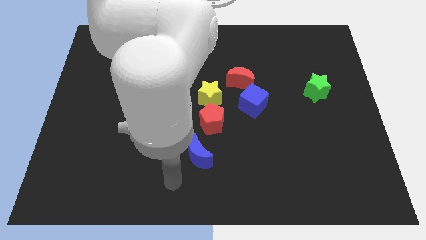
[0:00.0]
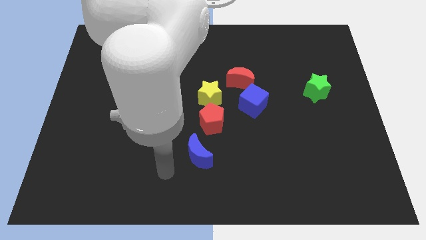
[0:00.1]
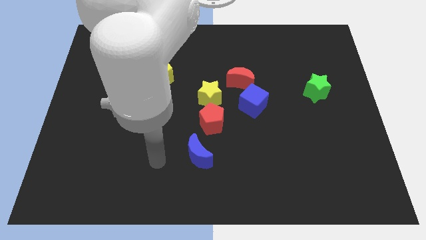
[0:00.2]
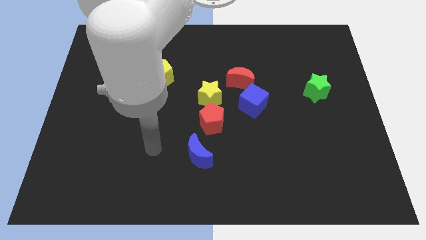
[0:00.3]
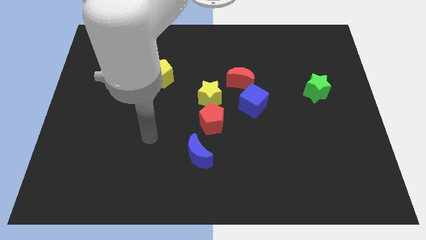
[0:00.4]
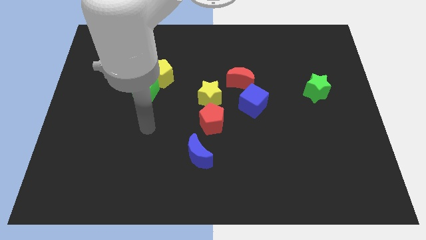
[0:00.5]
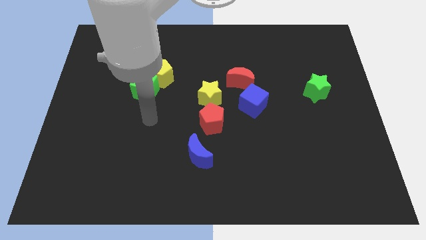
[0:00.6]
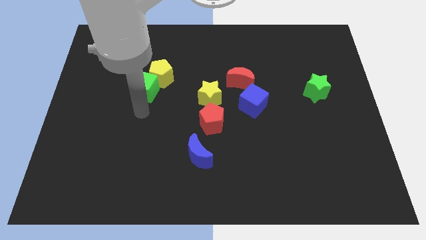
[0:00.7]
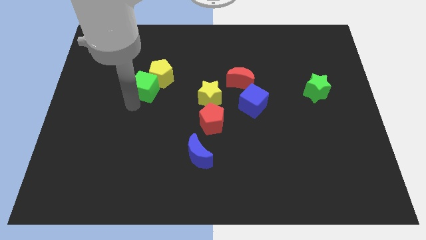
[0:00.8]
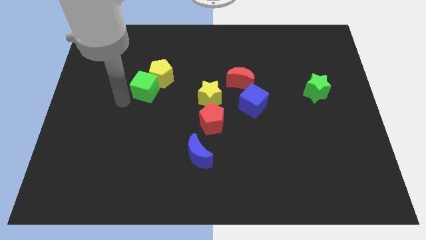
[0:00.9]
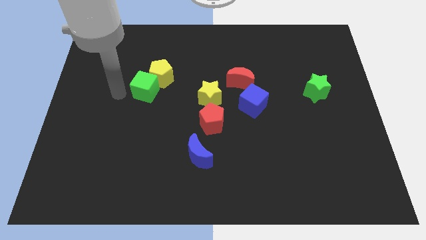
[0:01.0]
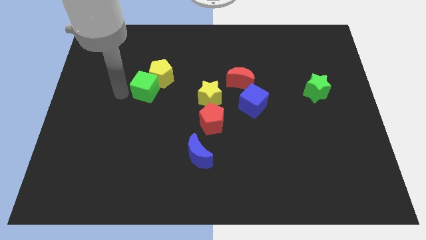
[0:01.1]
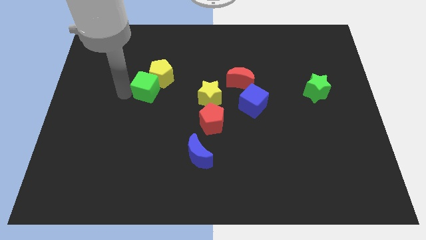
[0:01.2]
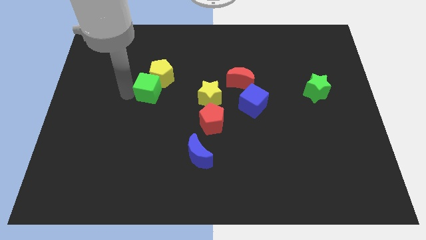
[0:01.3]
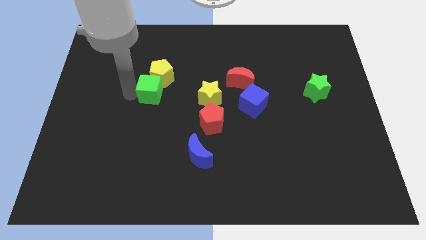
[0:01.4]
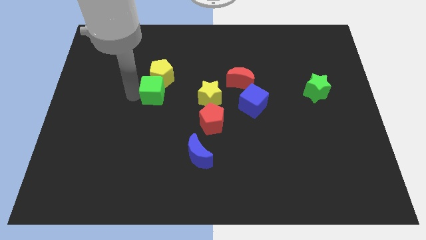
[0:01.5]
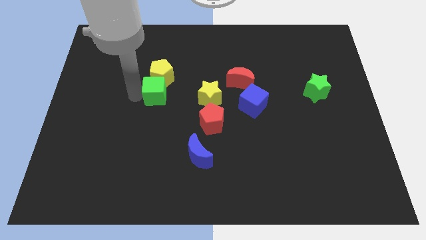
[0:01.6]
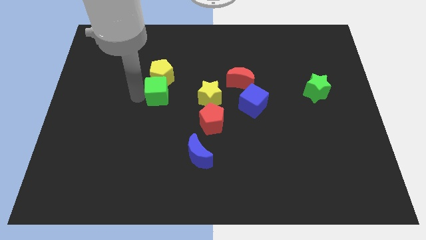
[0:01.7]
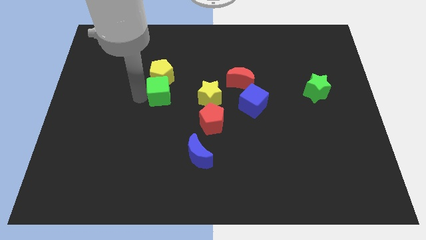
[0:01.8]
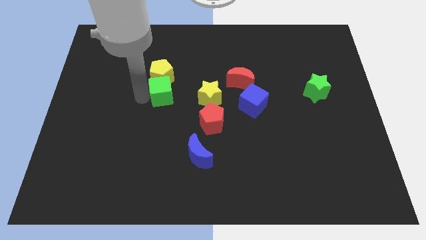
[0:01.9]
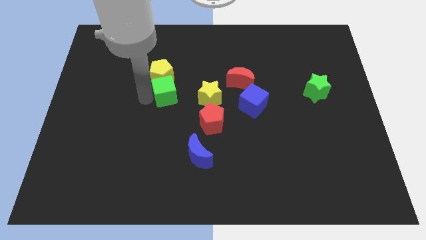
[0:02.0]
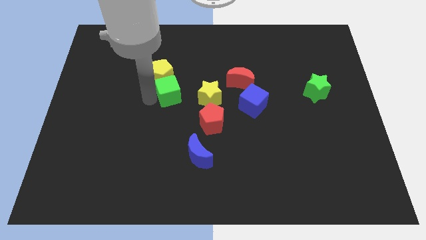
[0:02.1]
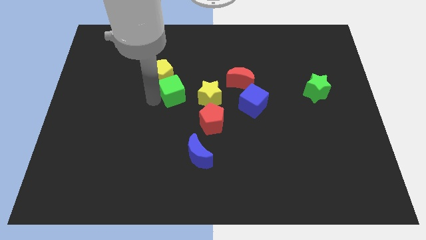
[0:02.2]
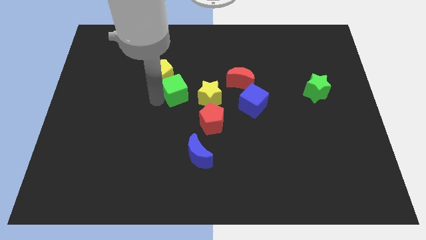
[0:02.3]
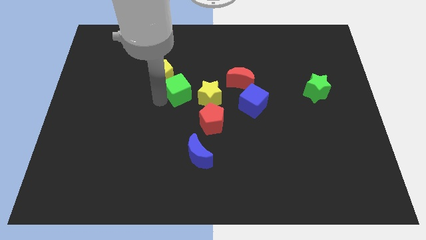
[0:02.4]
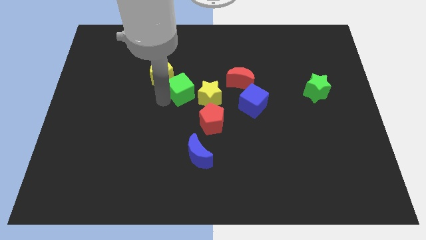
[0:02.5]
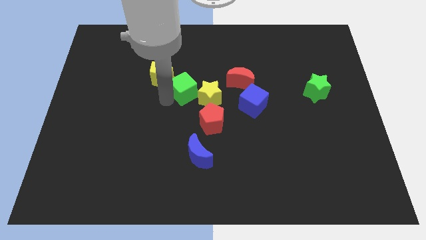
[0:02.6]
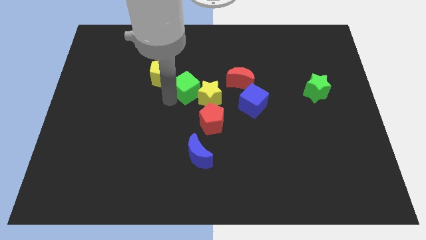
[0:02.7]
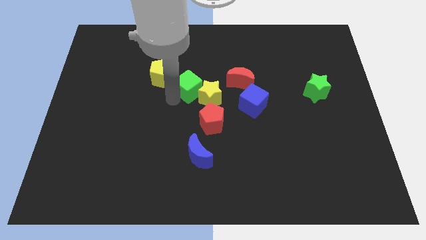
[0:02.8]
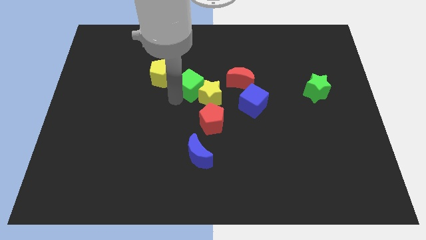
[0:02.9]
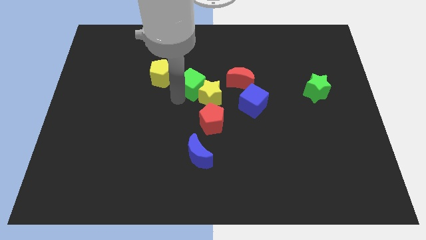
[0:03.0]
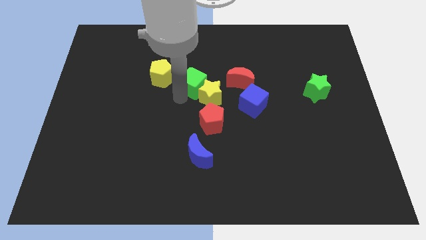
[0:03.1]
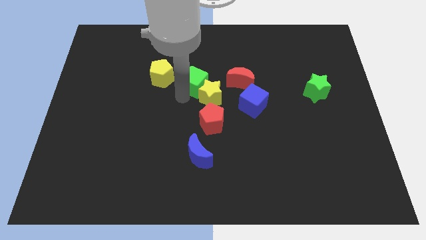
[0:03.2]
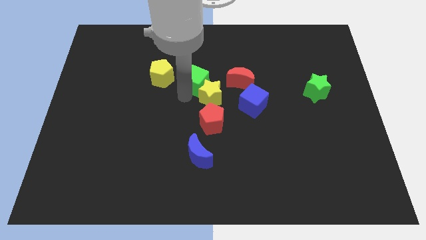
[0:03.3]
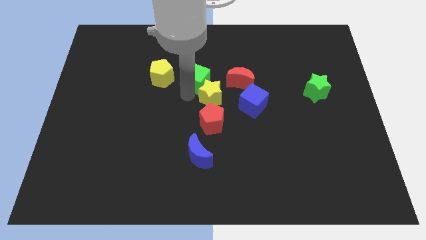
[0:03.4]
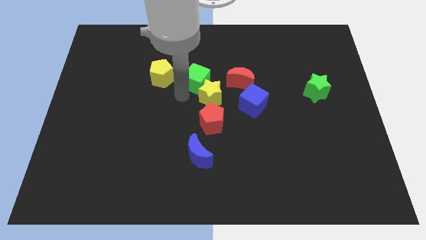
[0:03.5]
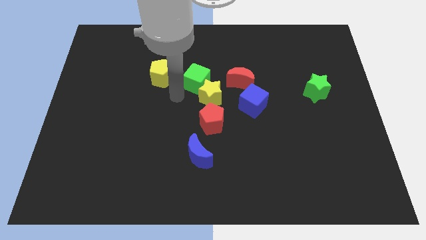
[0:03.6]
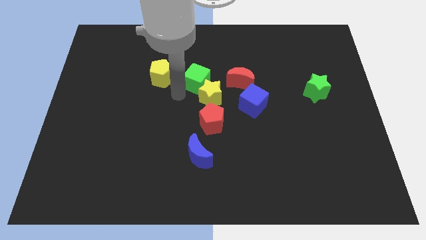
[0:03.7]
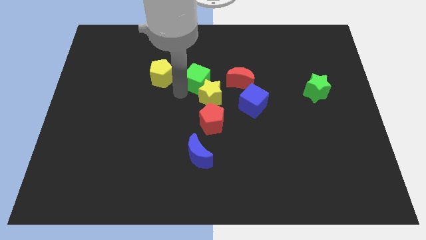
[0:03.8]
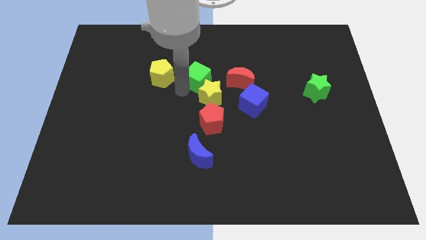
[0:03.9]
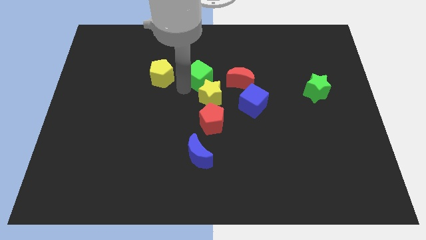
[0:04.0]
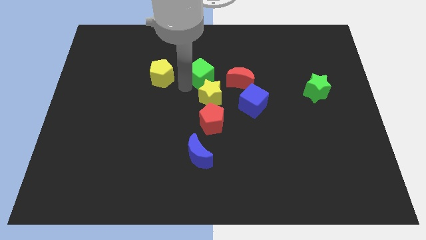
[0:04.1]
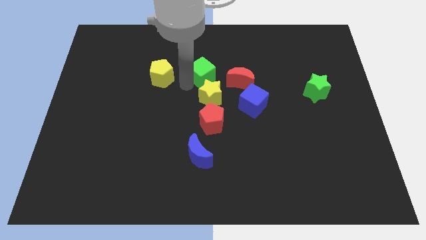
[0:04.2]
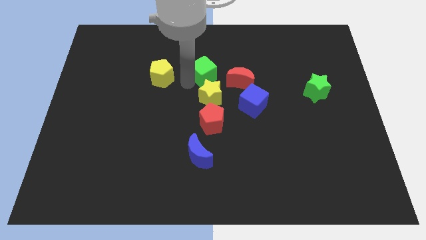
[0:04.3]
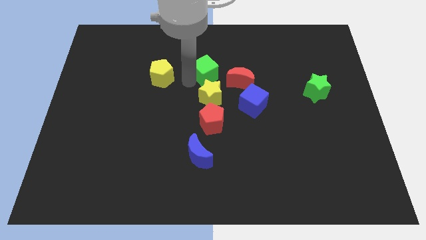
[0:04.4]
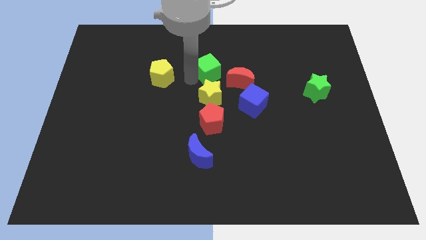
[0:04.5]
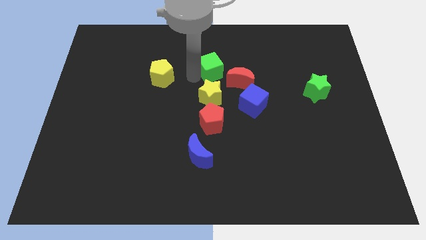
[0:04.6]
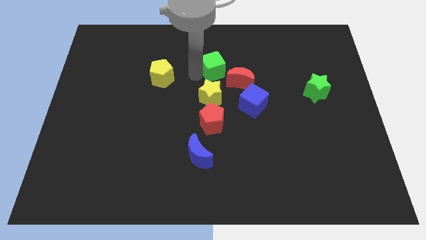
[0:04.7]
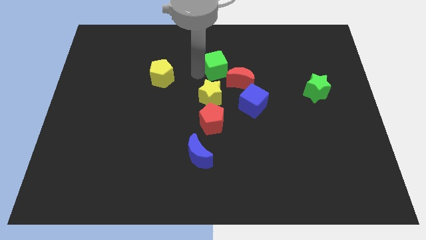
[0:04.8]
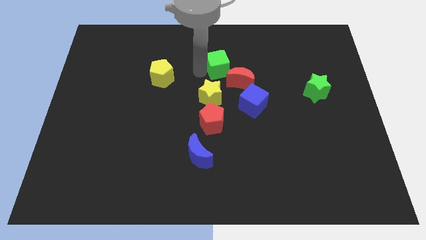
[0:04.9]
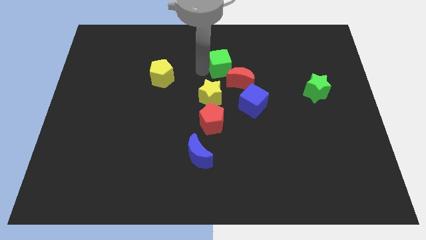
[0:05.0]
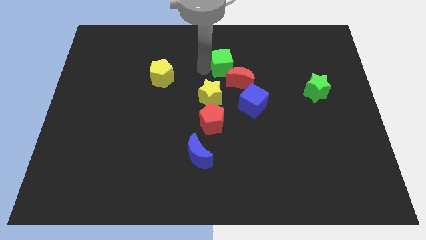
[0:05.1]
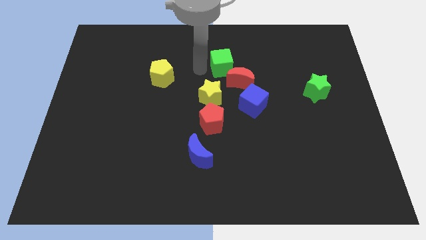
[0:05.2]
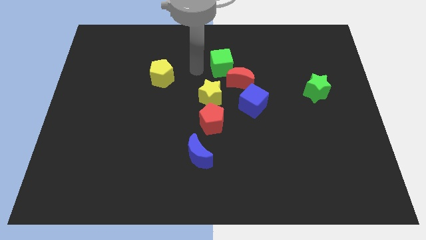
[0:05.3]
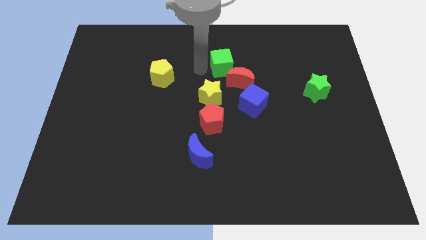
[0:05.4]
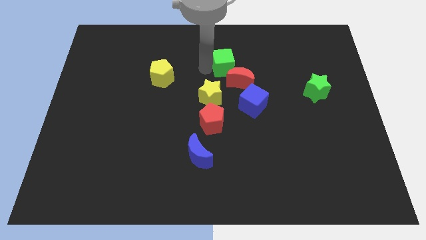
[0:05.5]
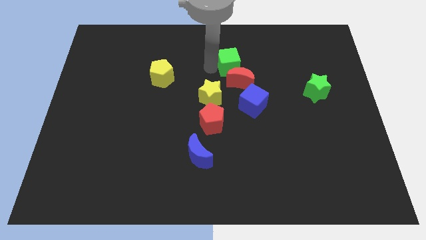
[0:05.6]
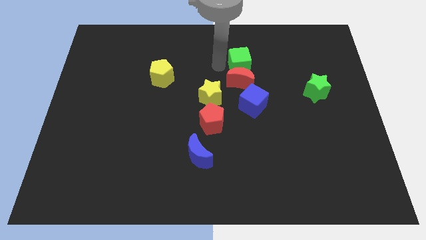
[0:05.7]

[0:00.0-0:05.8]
slide the green cube to the right

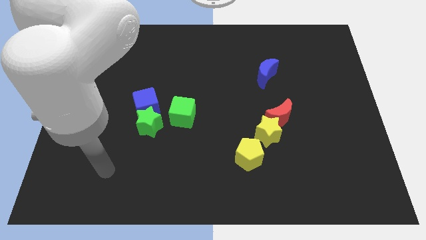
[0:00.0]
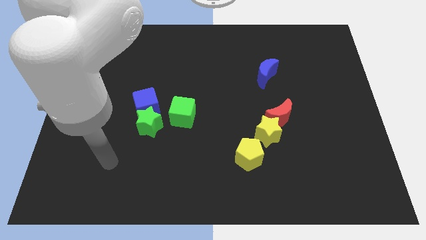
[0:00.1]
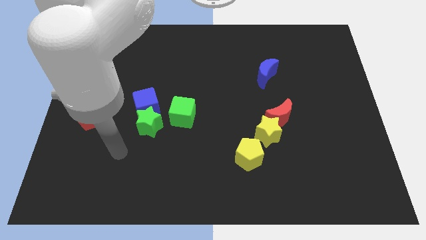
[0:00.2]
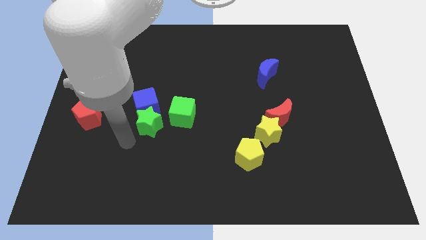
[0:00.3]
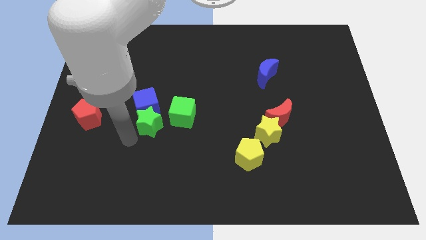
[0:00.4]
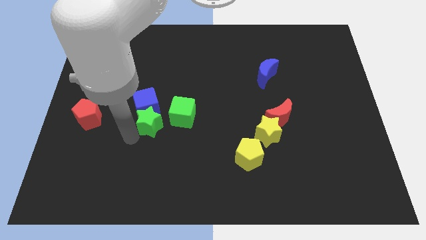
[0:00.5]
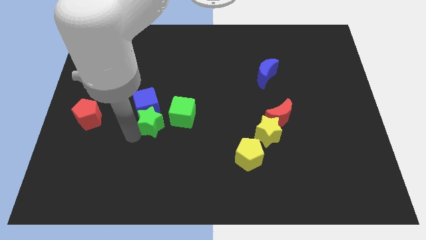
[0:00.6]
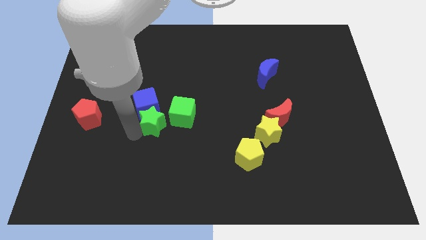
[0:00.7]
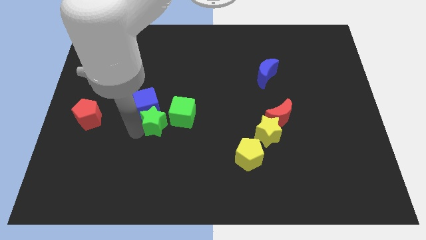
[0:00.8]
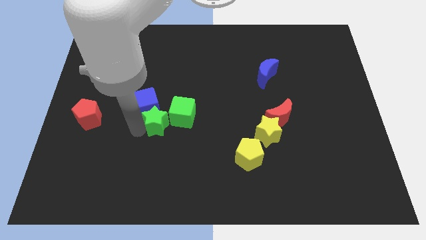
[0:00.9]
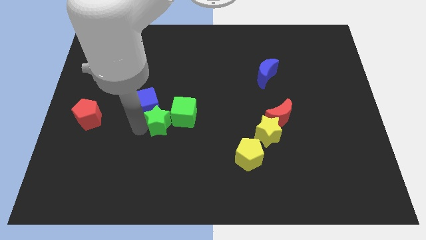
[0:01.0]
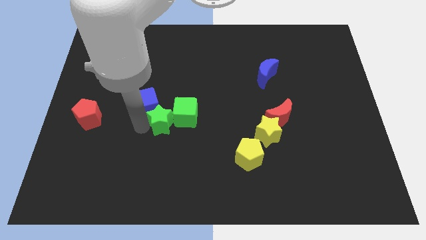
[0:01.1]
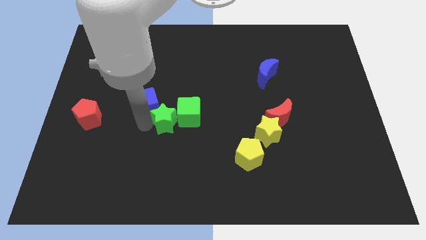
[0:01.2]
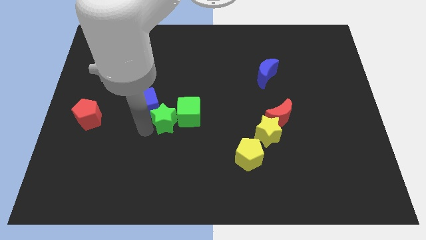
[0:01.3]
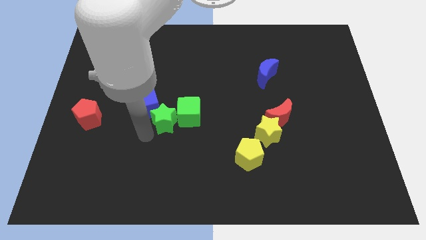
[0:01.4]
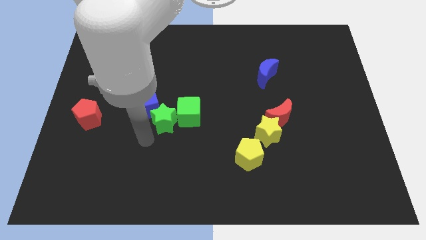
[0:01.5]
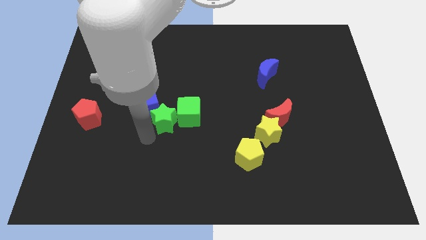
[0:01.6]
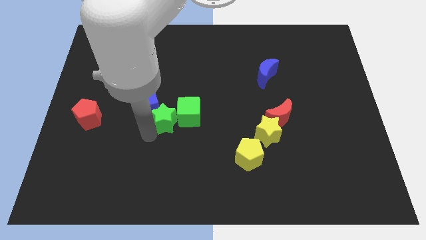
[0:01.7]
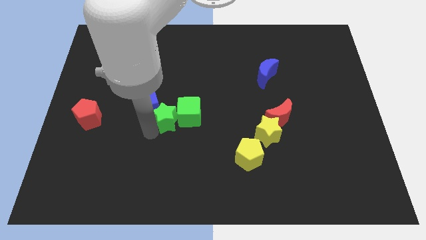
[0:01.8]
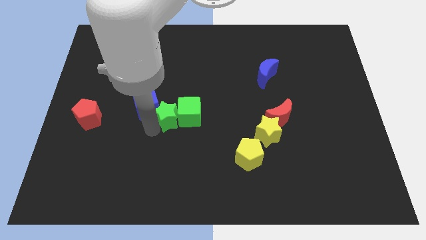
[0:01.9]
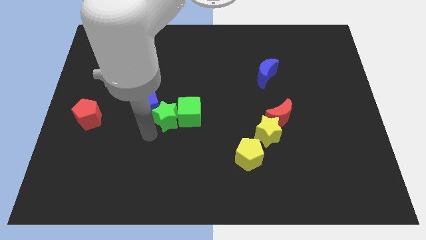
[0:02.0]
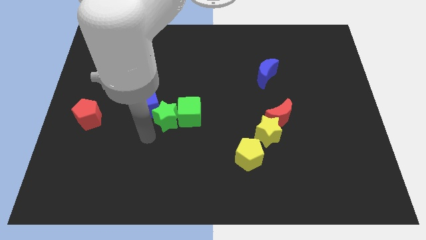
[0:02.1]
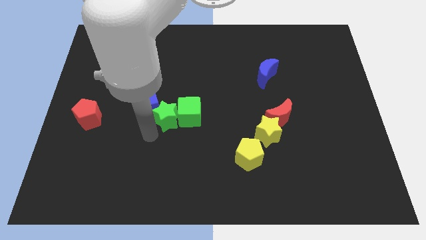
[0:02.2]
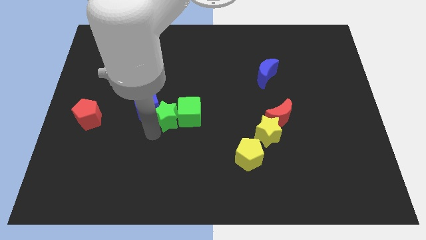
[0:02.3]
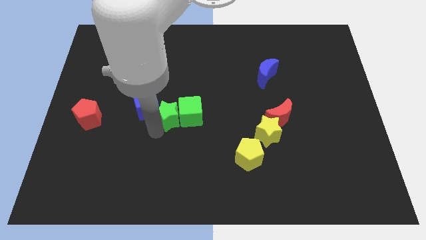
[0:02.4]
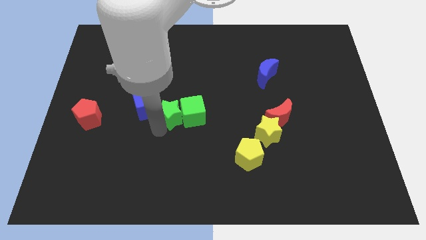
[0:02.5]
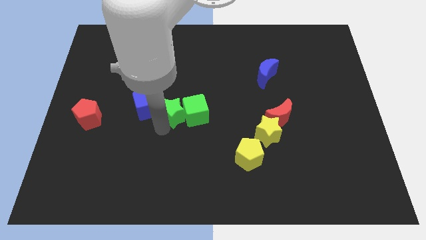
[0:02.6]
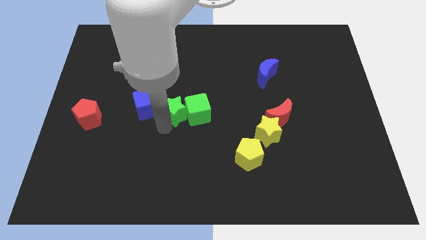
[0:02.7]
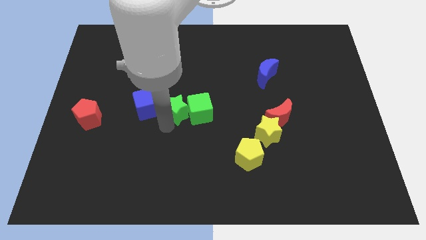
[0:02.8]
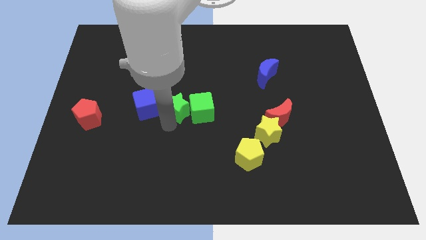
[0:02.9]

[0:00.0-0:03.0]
slide the green star upwards and then to the right a little
